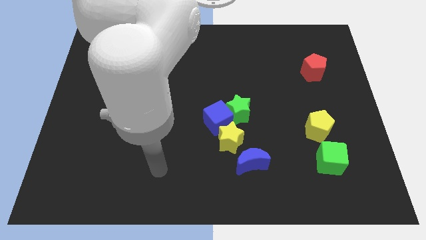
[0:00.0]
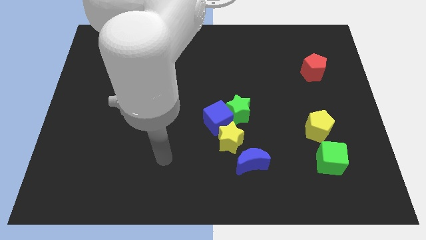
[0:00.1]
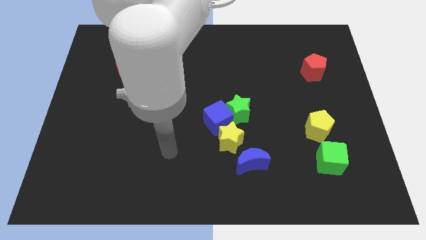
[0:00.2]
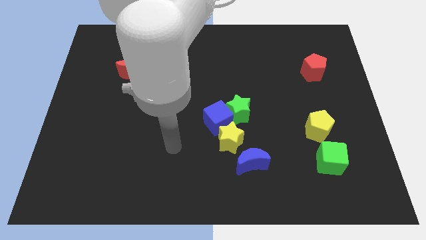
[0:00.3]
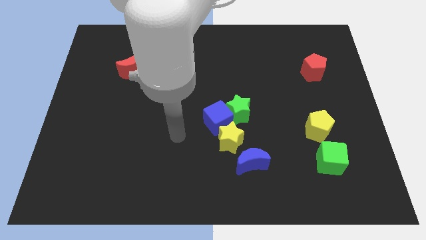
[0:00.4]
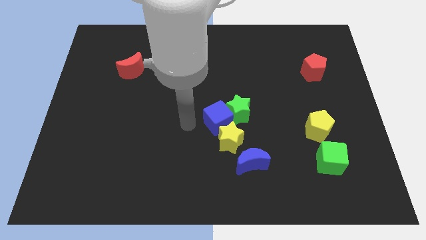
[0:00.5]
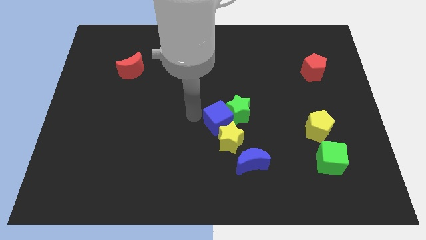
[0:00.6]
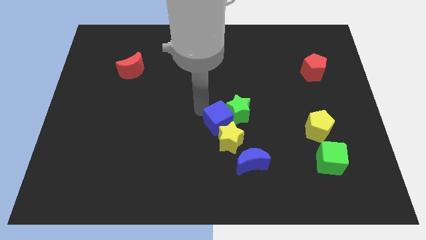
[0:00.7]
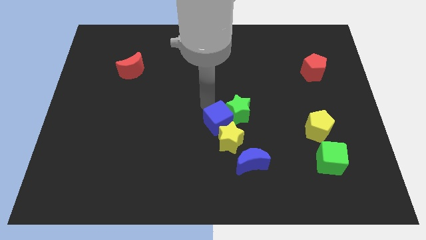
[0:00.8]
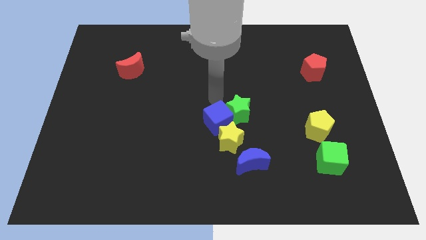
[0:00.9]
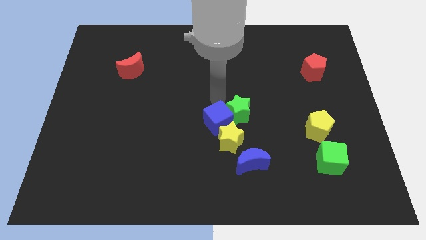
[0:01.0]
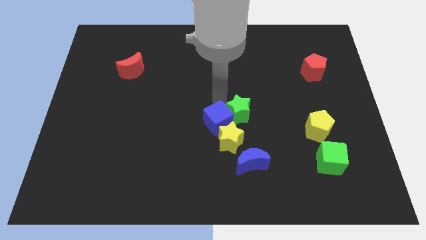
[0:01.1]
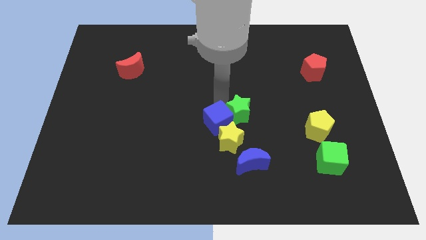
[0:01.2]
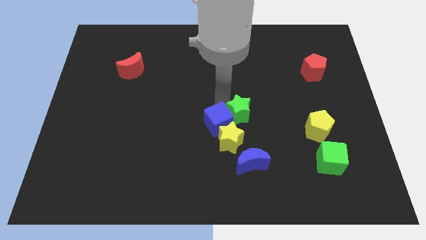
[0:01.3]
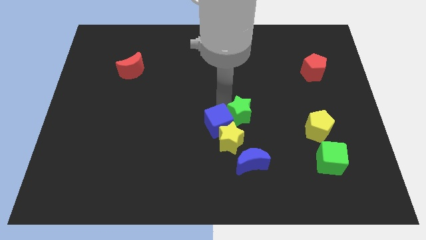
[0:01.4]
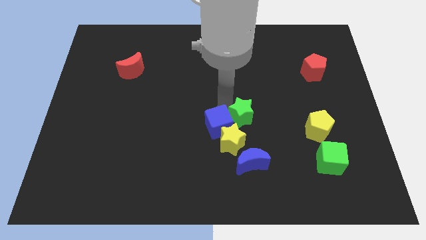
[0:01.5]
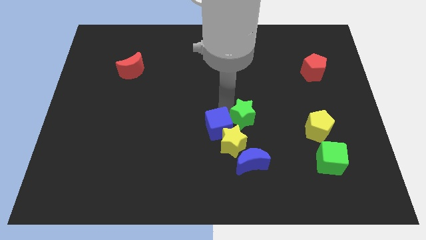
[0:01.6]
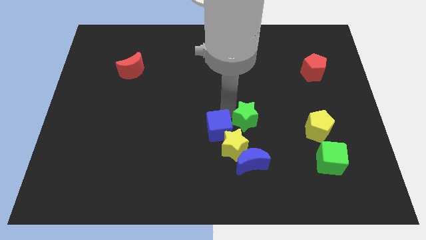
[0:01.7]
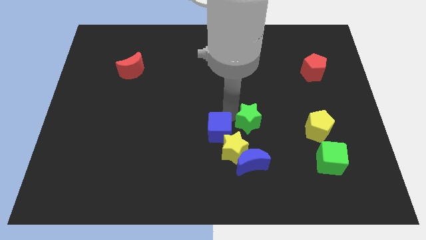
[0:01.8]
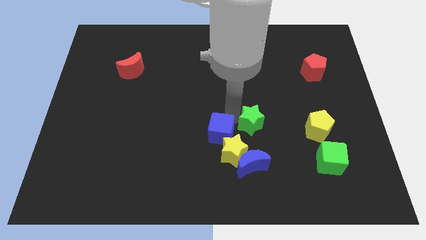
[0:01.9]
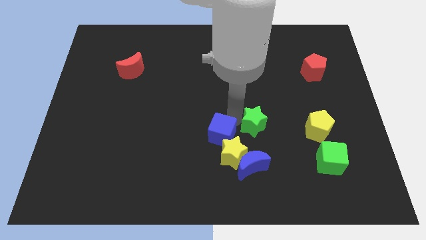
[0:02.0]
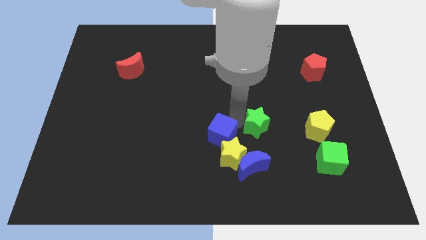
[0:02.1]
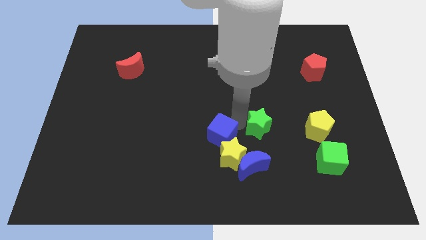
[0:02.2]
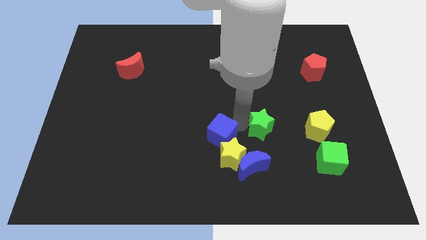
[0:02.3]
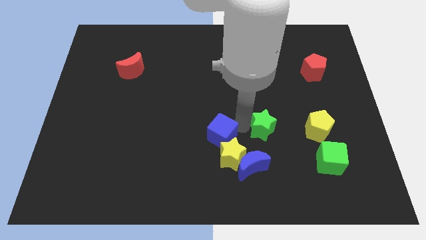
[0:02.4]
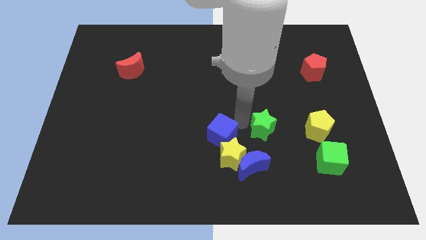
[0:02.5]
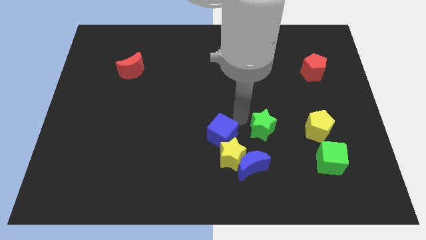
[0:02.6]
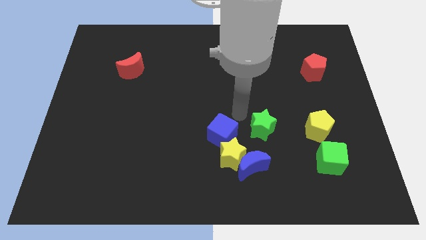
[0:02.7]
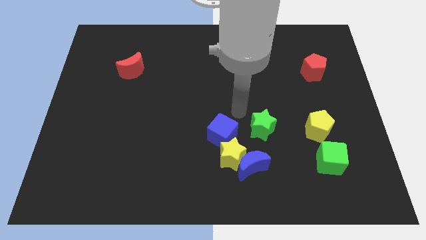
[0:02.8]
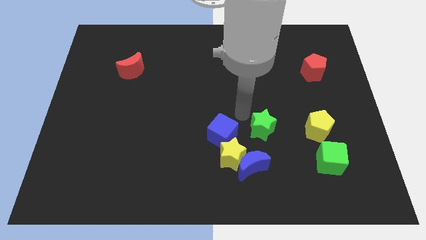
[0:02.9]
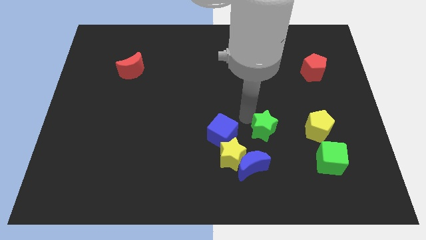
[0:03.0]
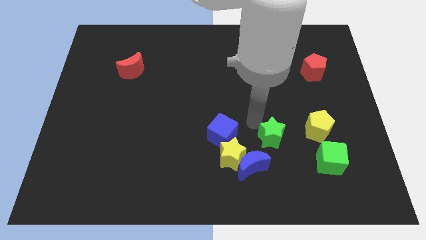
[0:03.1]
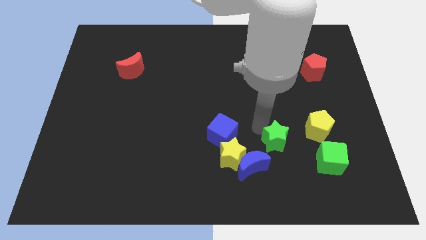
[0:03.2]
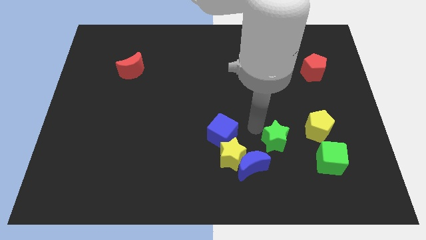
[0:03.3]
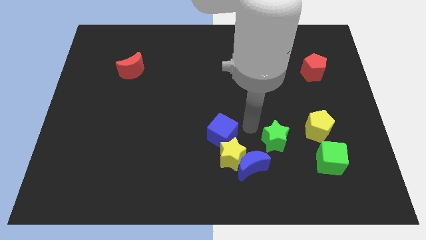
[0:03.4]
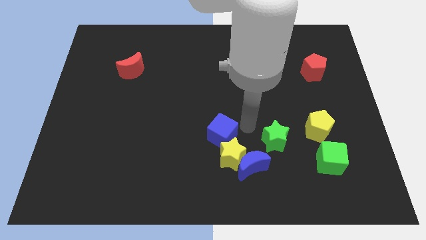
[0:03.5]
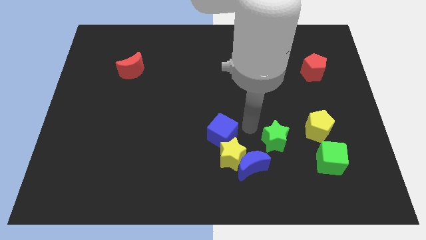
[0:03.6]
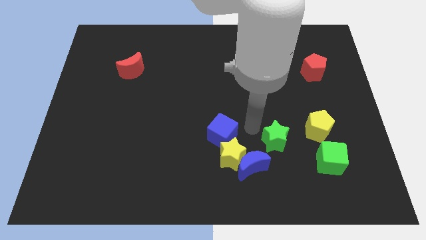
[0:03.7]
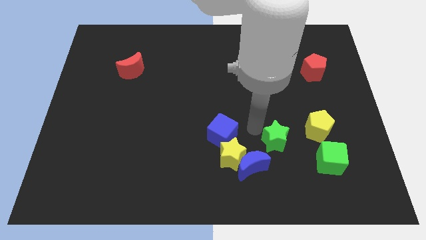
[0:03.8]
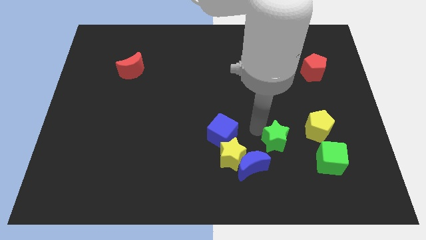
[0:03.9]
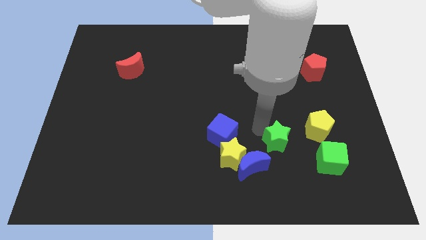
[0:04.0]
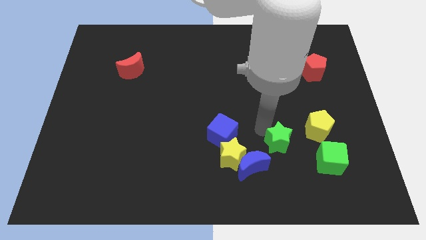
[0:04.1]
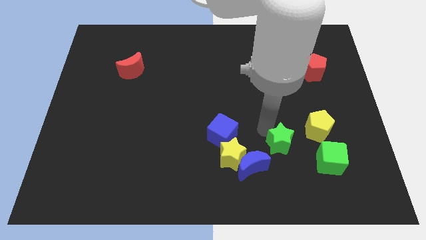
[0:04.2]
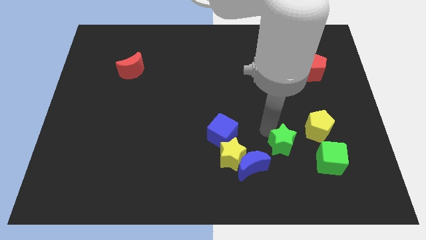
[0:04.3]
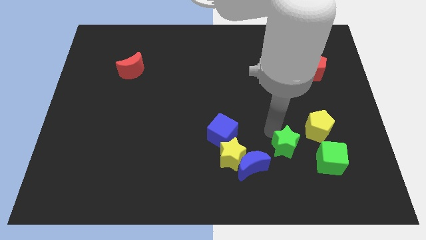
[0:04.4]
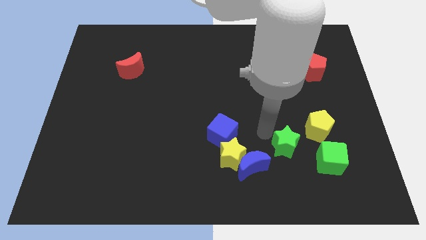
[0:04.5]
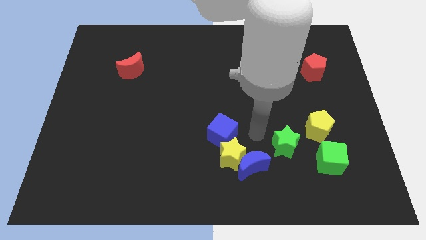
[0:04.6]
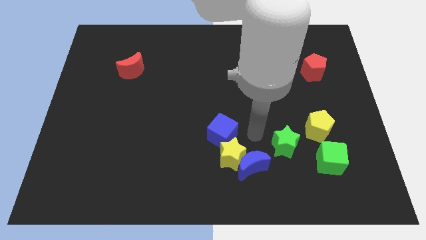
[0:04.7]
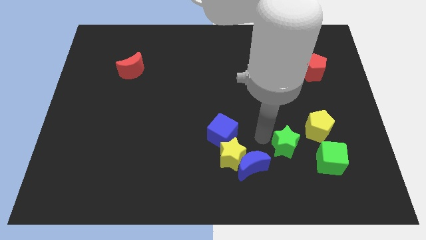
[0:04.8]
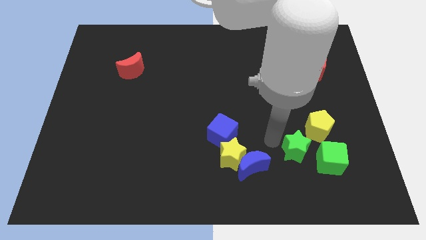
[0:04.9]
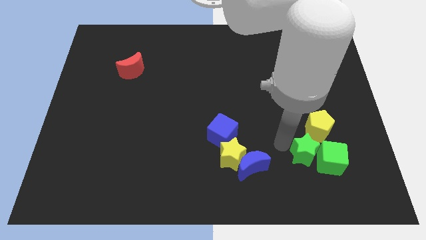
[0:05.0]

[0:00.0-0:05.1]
put the green star close to the green cube

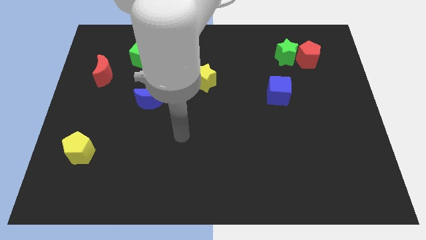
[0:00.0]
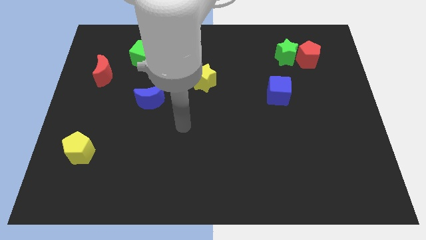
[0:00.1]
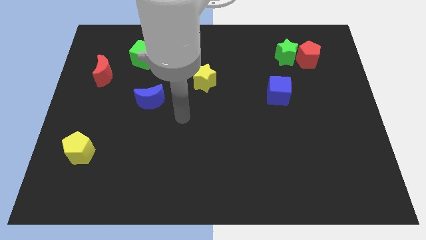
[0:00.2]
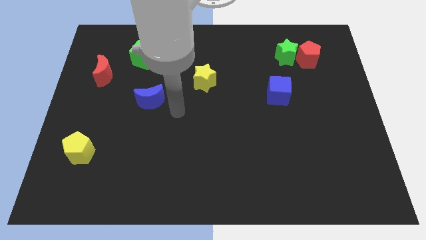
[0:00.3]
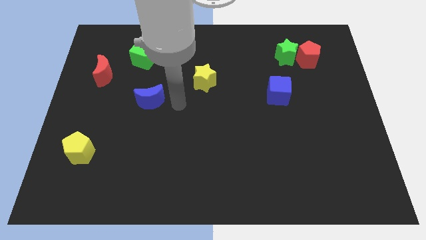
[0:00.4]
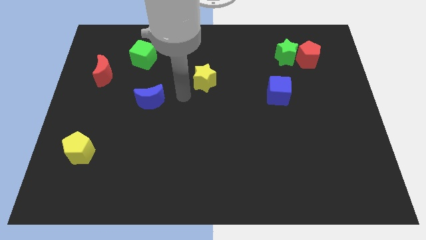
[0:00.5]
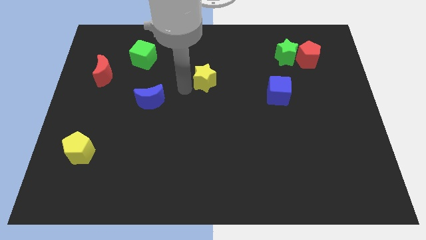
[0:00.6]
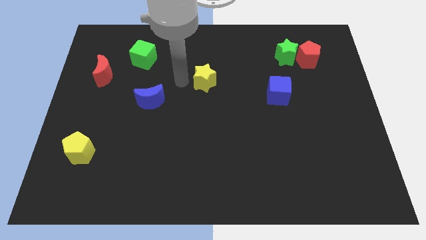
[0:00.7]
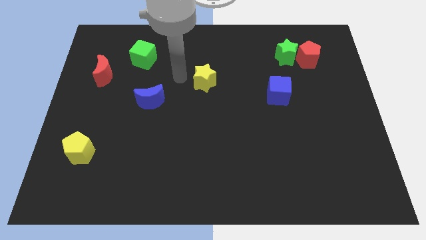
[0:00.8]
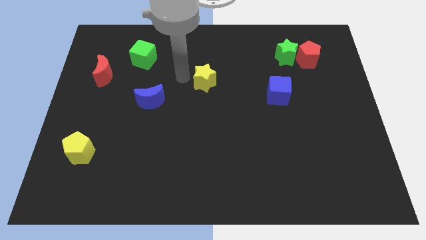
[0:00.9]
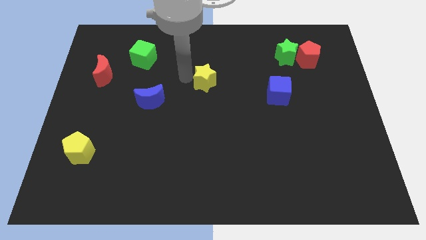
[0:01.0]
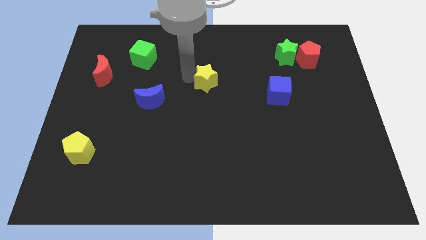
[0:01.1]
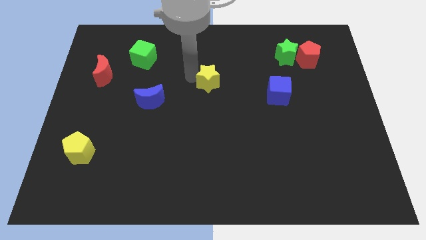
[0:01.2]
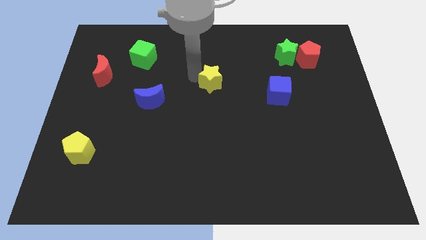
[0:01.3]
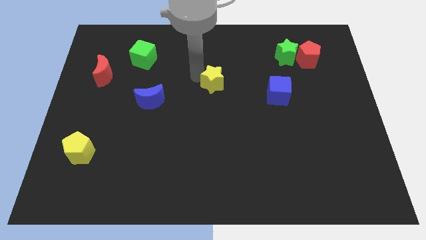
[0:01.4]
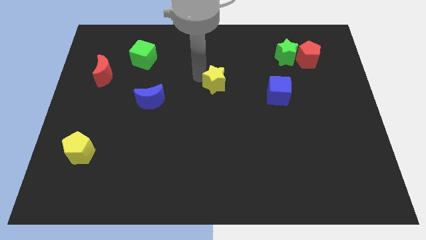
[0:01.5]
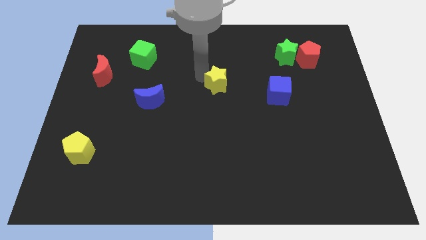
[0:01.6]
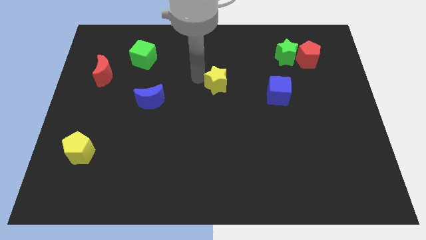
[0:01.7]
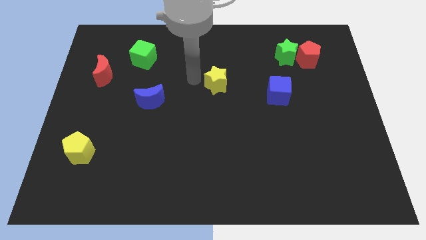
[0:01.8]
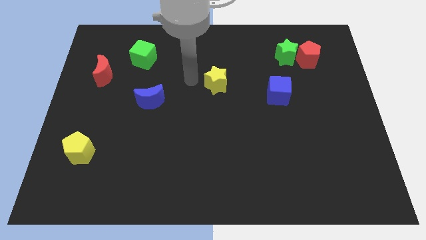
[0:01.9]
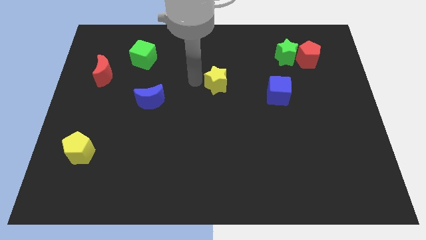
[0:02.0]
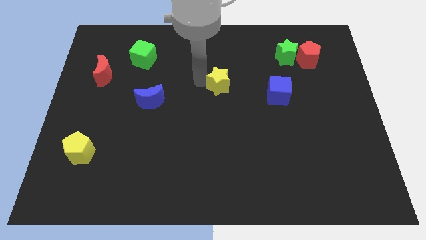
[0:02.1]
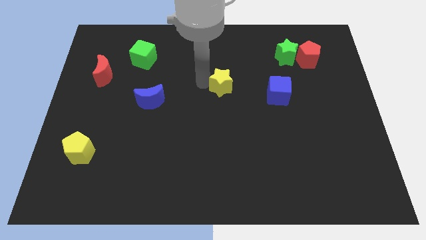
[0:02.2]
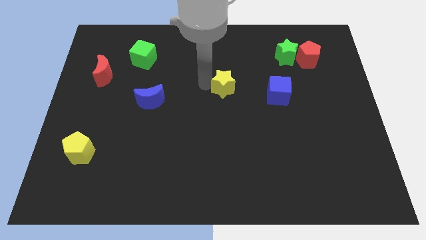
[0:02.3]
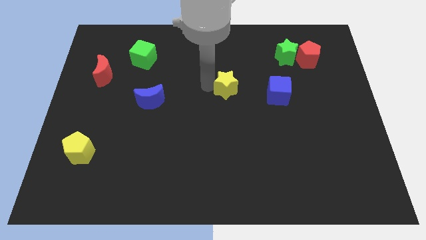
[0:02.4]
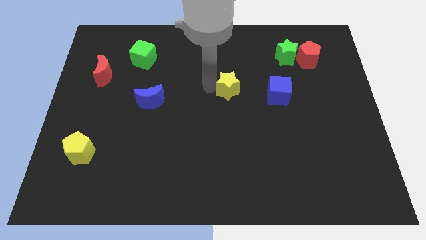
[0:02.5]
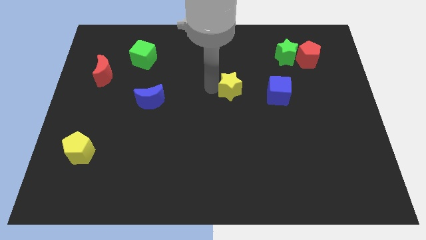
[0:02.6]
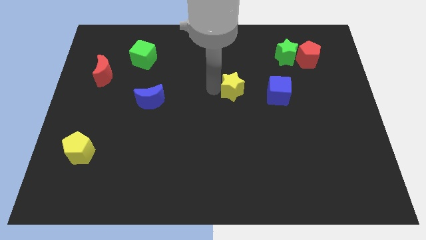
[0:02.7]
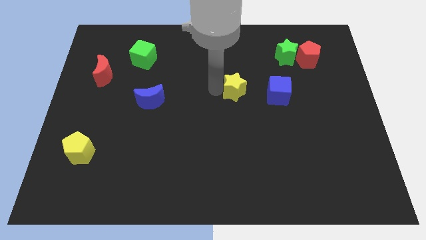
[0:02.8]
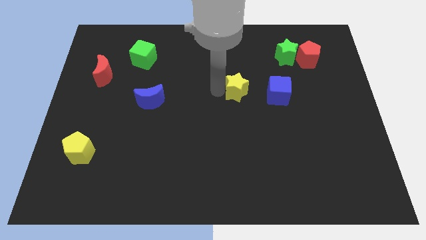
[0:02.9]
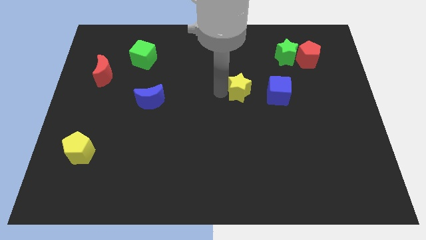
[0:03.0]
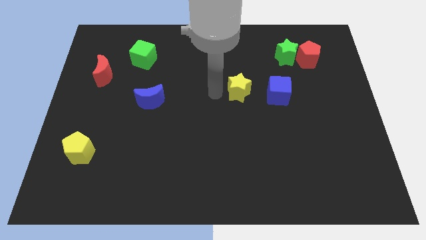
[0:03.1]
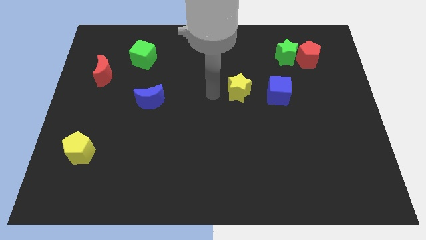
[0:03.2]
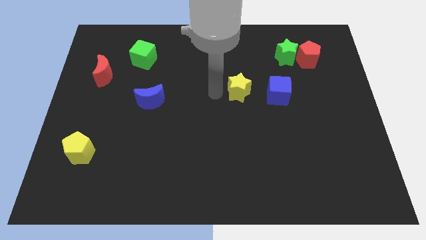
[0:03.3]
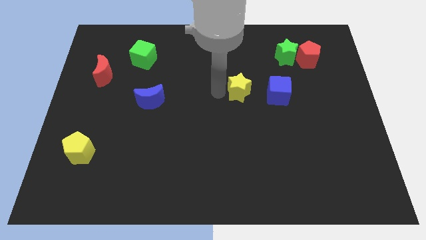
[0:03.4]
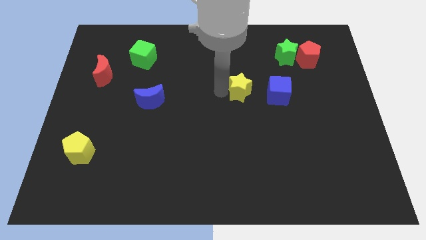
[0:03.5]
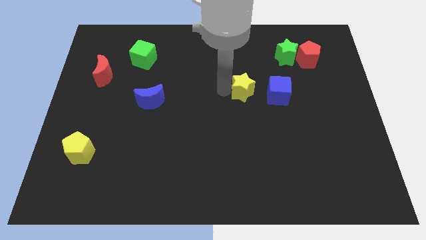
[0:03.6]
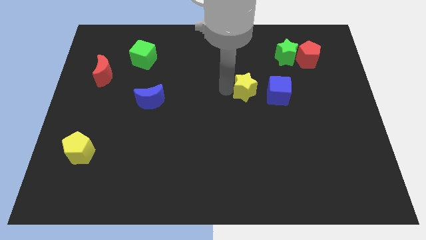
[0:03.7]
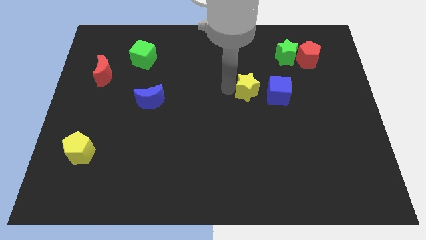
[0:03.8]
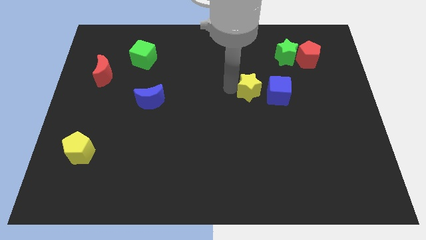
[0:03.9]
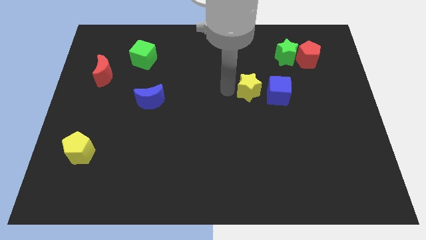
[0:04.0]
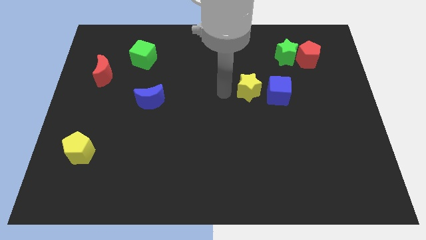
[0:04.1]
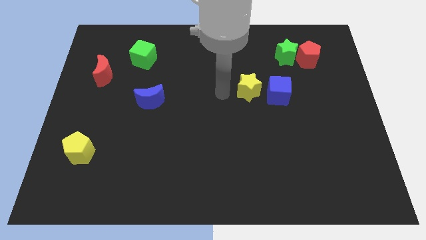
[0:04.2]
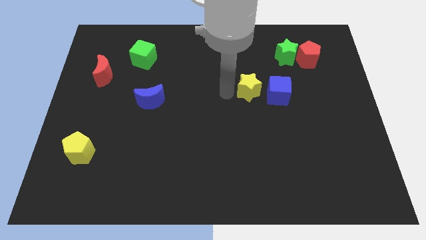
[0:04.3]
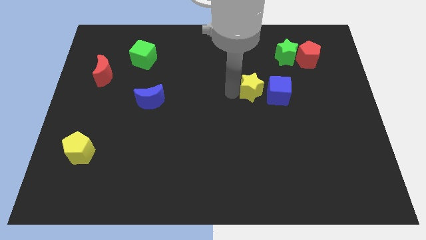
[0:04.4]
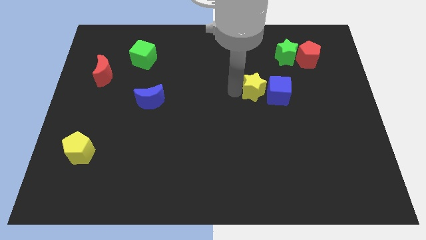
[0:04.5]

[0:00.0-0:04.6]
push the yellow star to the blue cube
